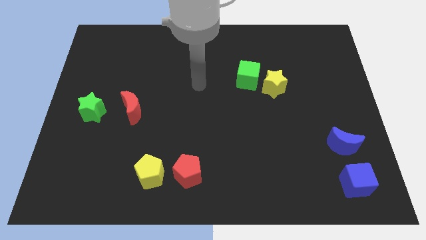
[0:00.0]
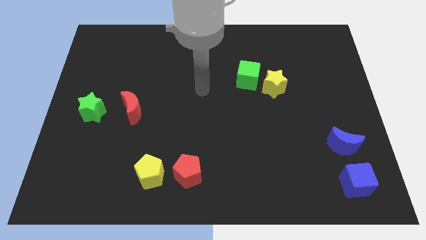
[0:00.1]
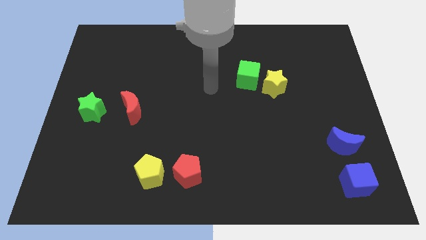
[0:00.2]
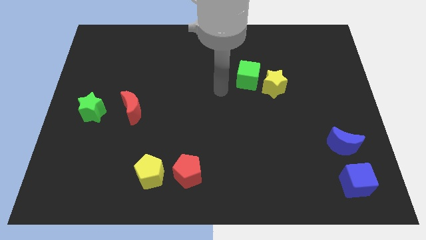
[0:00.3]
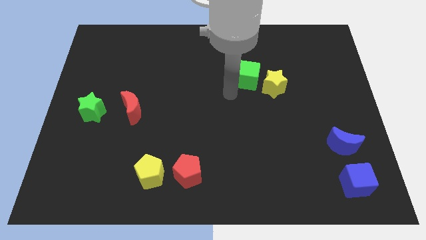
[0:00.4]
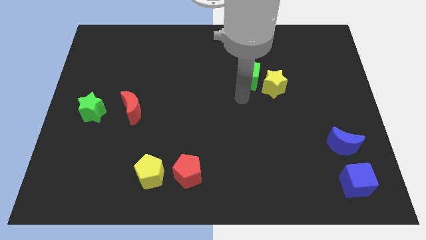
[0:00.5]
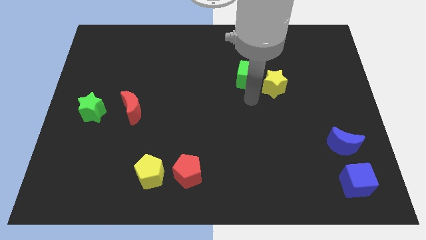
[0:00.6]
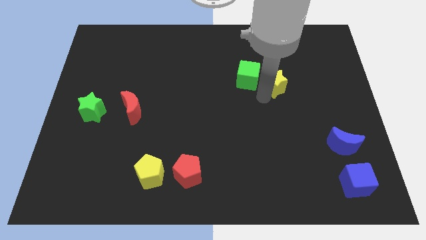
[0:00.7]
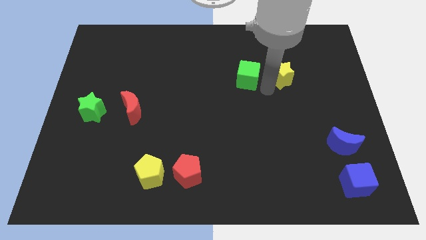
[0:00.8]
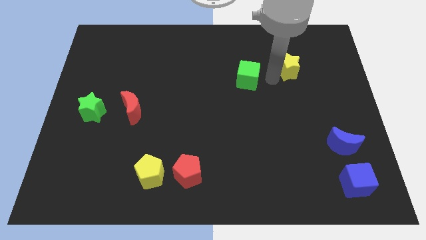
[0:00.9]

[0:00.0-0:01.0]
move the green cube away from the yellow star

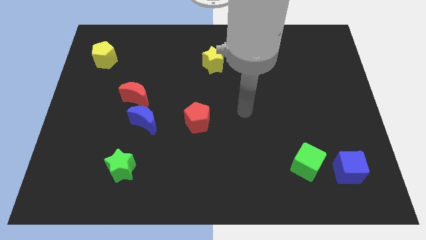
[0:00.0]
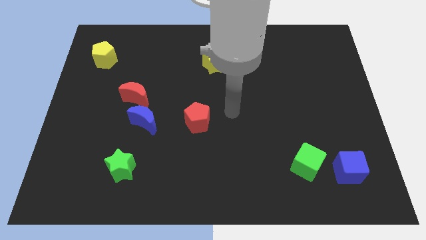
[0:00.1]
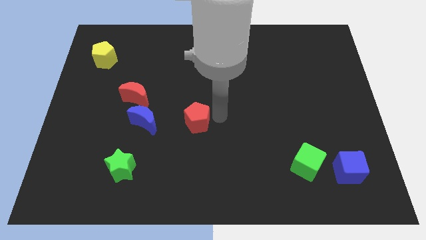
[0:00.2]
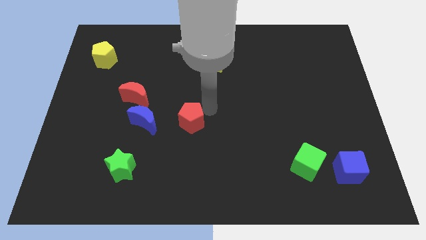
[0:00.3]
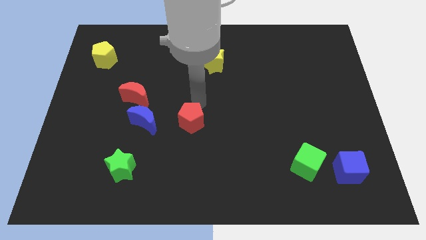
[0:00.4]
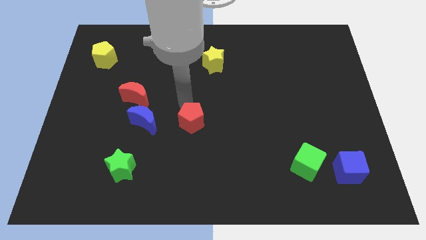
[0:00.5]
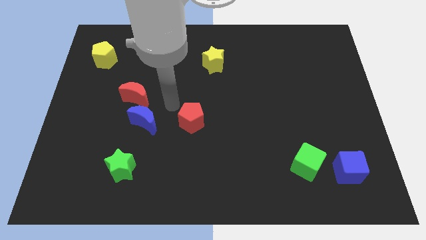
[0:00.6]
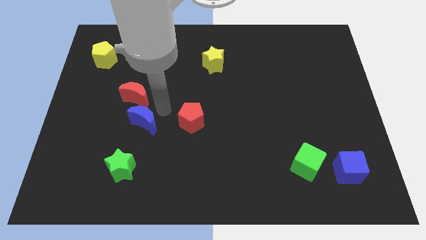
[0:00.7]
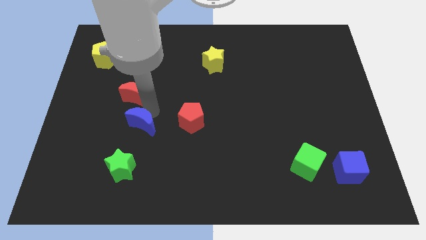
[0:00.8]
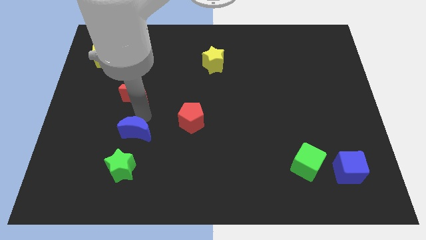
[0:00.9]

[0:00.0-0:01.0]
move the red moon away from the blue moon

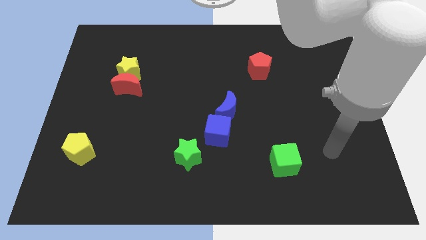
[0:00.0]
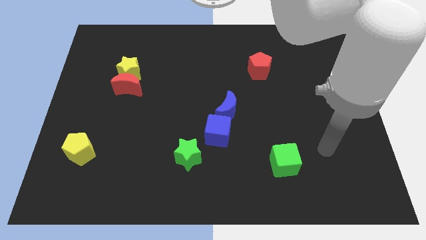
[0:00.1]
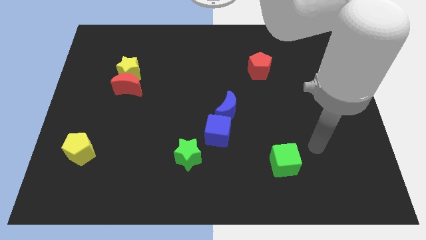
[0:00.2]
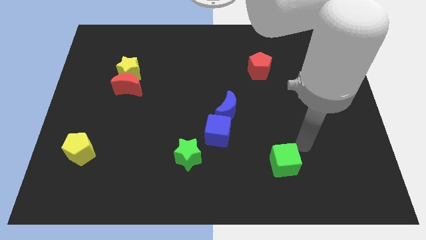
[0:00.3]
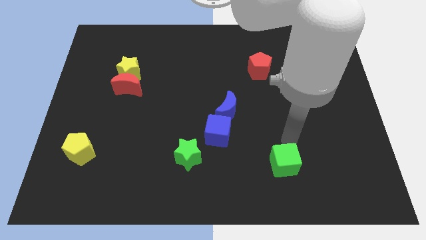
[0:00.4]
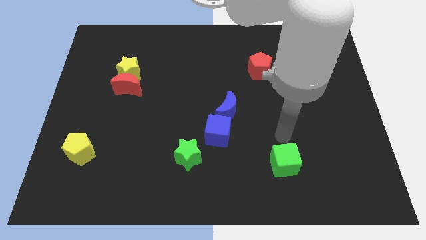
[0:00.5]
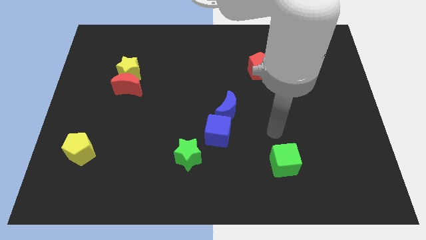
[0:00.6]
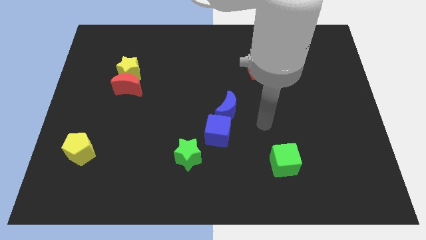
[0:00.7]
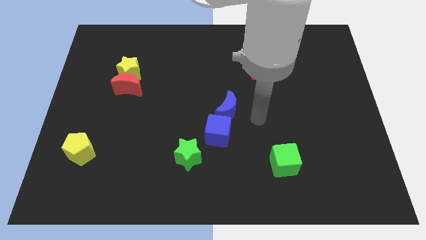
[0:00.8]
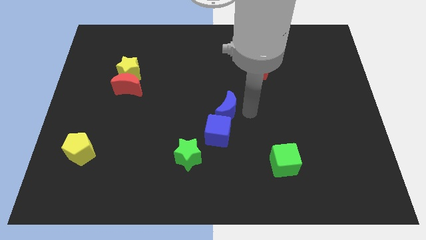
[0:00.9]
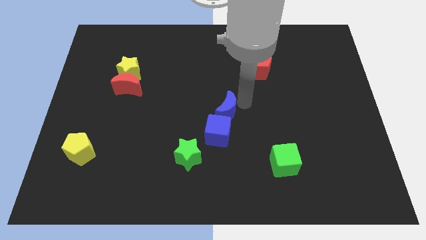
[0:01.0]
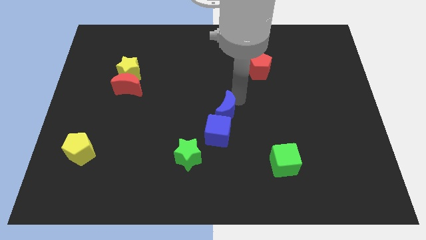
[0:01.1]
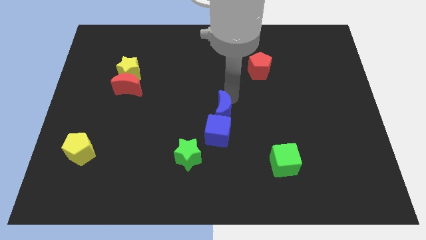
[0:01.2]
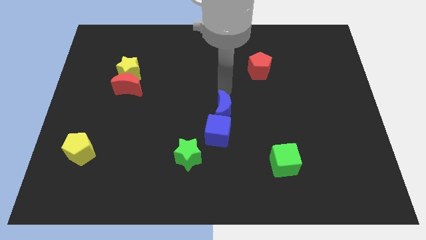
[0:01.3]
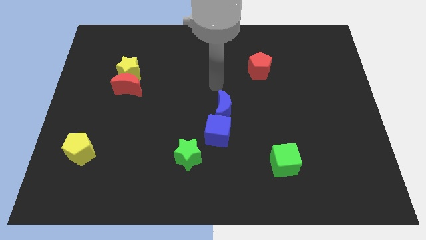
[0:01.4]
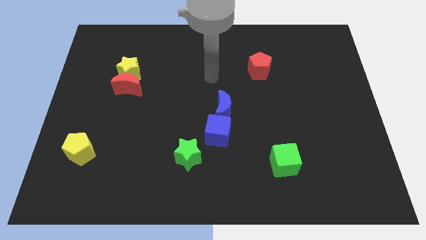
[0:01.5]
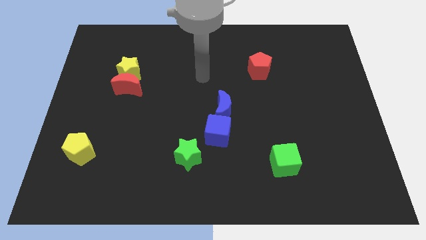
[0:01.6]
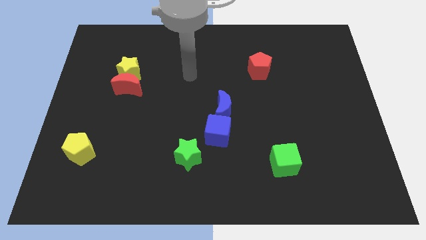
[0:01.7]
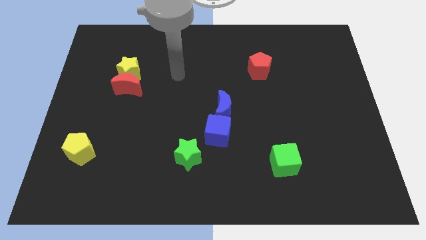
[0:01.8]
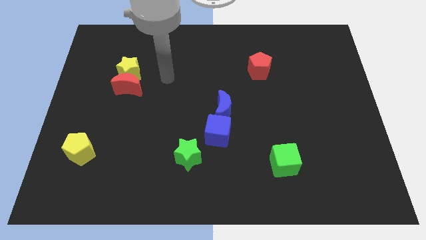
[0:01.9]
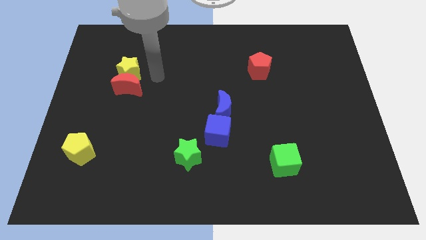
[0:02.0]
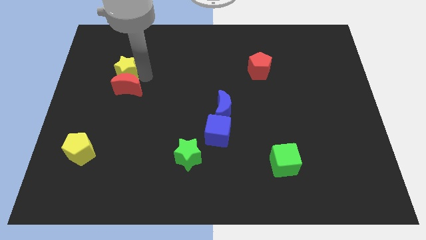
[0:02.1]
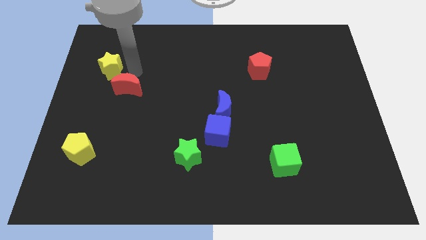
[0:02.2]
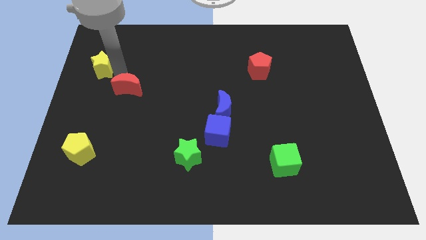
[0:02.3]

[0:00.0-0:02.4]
move the red moon away from the yellow star

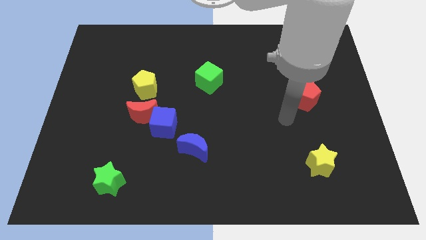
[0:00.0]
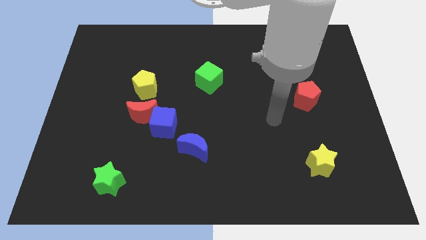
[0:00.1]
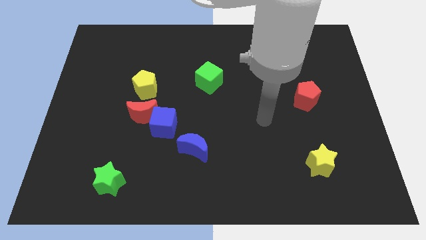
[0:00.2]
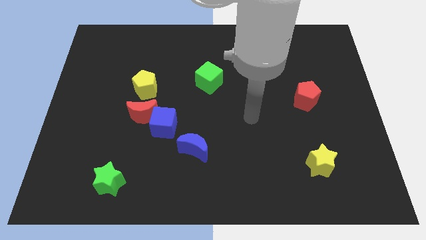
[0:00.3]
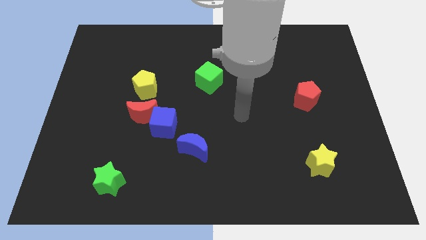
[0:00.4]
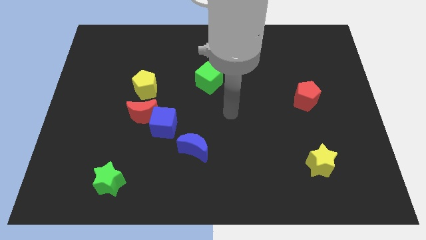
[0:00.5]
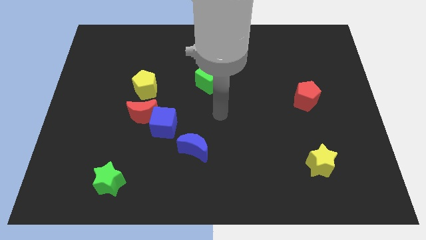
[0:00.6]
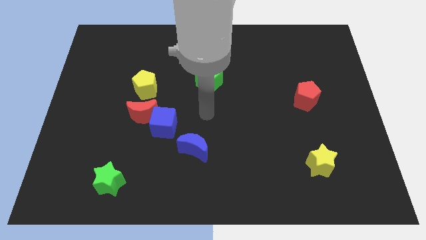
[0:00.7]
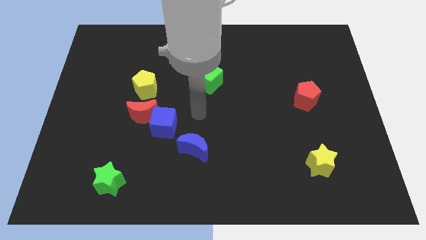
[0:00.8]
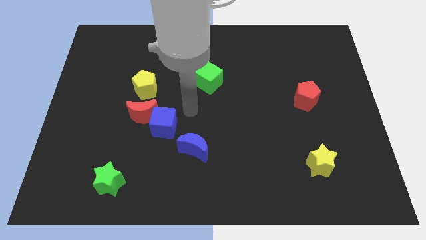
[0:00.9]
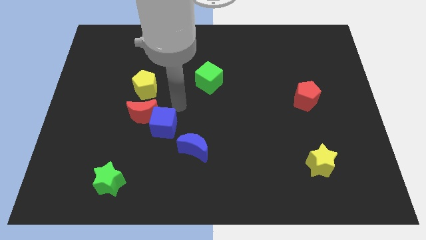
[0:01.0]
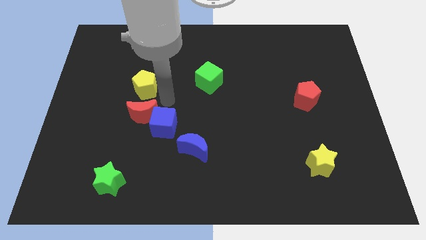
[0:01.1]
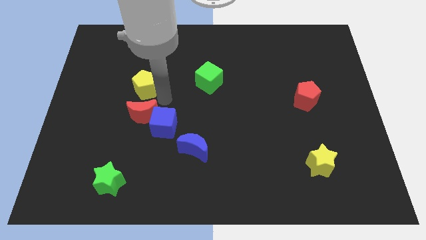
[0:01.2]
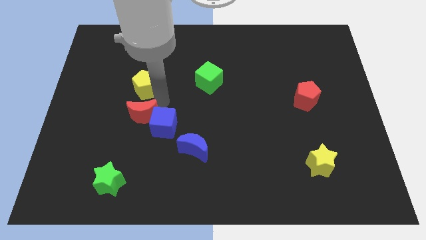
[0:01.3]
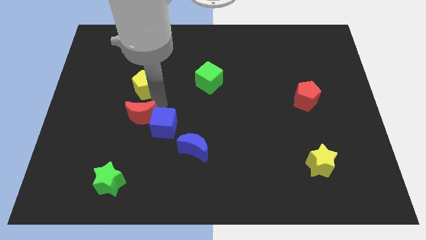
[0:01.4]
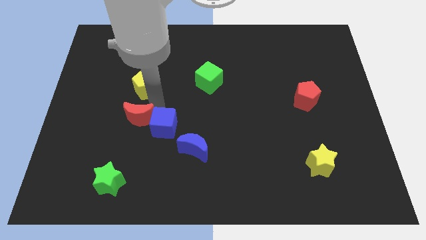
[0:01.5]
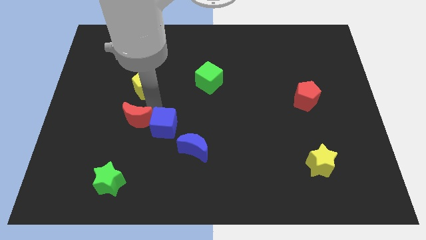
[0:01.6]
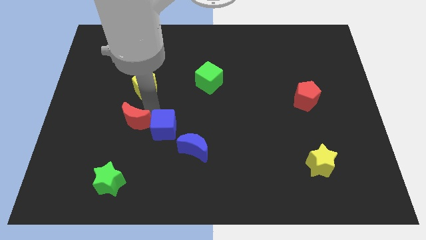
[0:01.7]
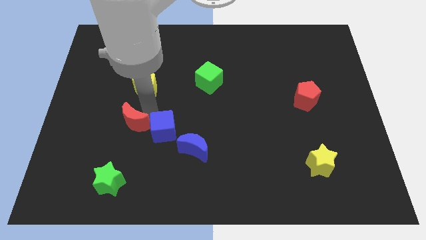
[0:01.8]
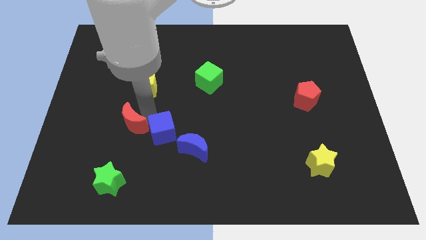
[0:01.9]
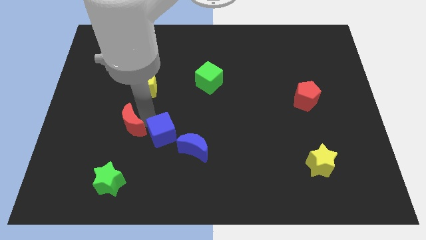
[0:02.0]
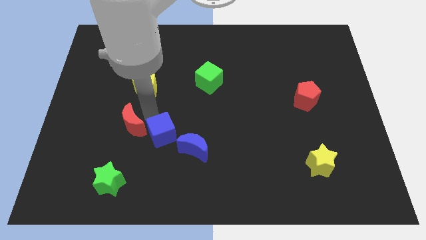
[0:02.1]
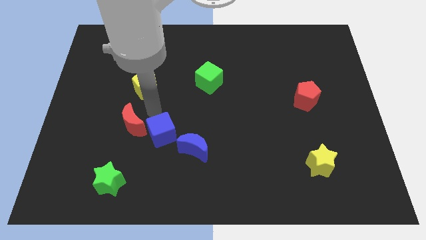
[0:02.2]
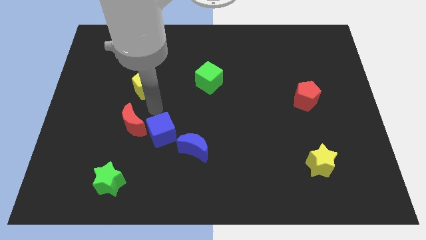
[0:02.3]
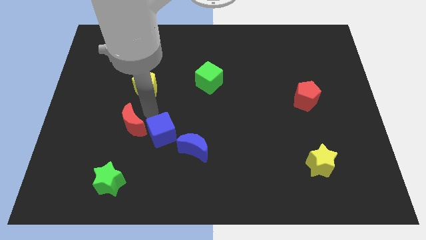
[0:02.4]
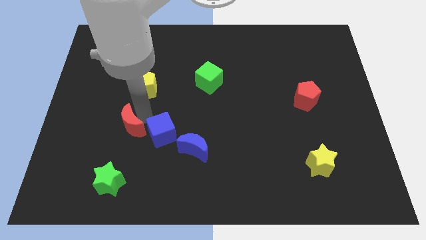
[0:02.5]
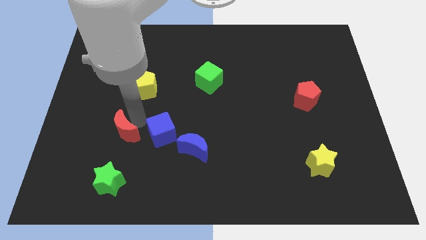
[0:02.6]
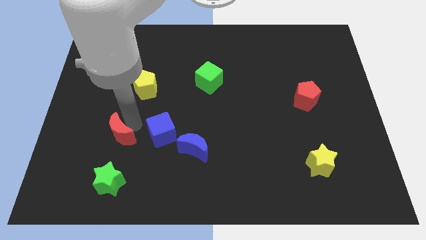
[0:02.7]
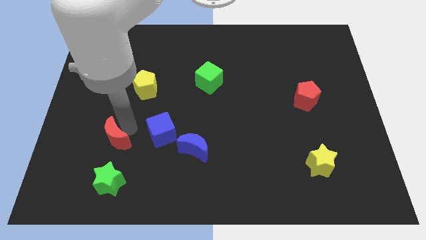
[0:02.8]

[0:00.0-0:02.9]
move the red moon away from the blue cube and yellow pentagon

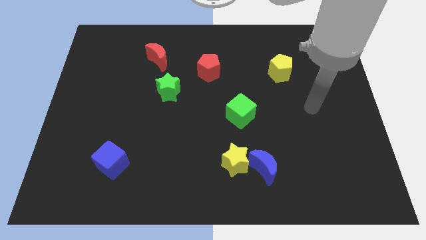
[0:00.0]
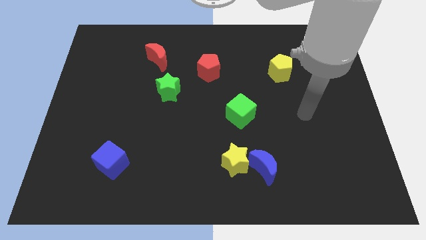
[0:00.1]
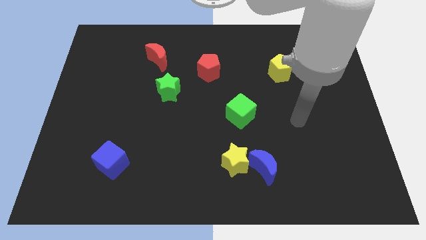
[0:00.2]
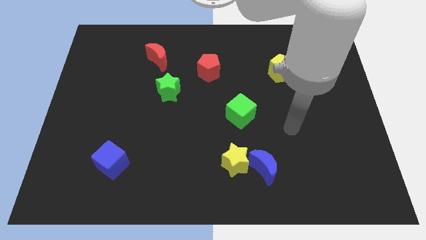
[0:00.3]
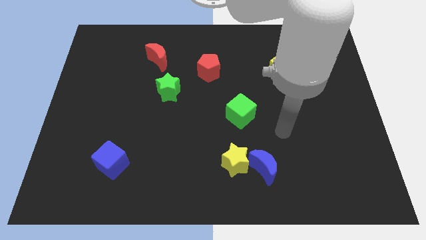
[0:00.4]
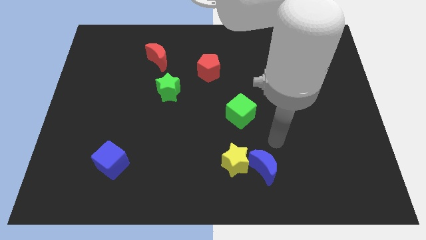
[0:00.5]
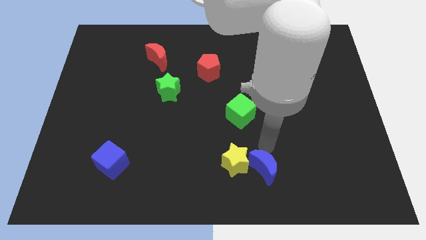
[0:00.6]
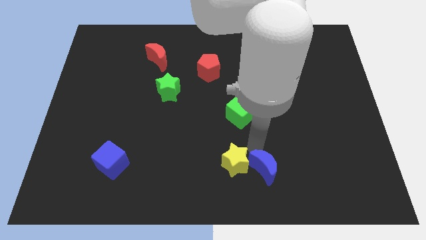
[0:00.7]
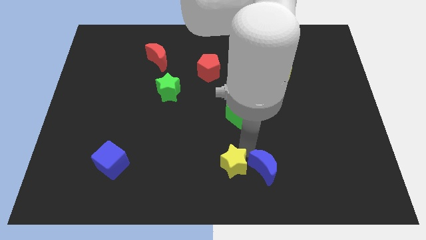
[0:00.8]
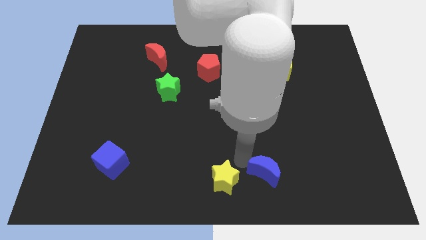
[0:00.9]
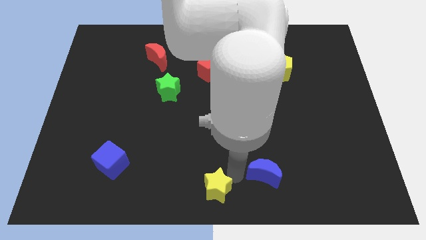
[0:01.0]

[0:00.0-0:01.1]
move the blue moon away from the yellow star

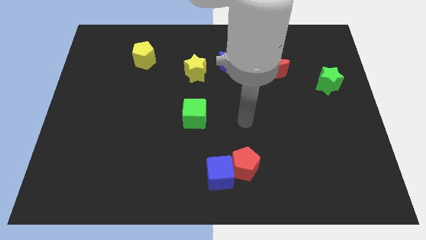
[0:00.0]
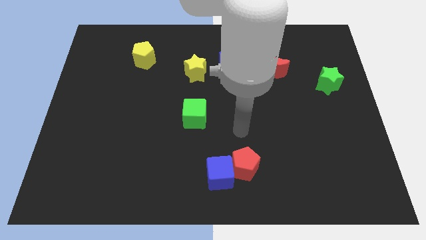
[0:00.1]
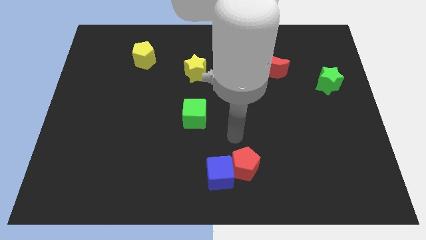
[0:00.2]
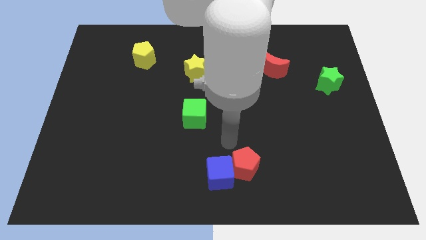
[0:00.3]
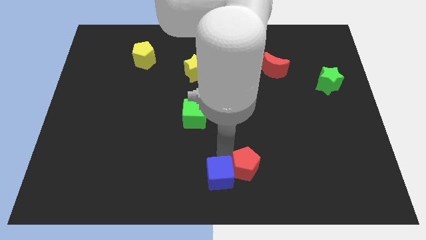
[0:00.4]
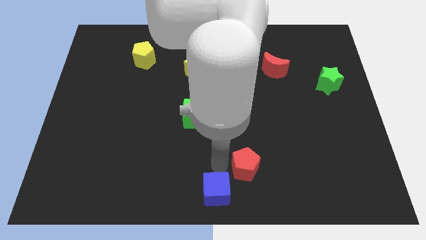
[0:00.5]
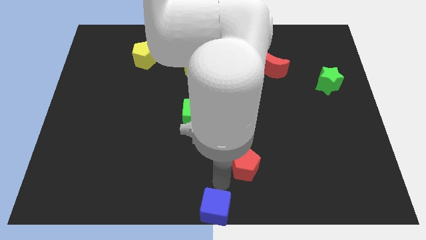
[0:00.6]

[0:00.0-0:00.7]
move the red pentagon away from the blue cube

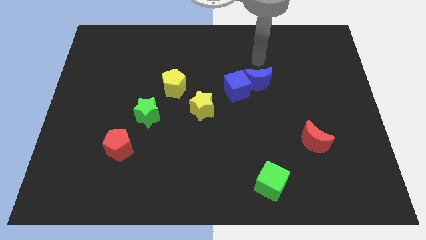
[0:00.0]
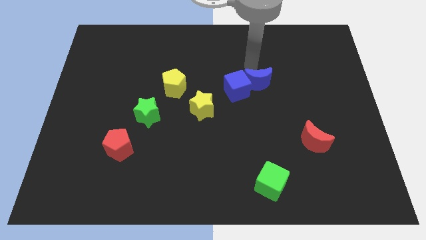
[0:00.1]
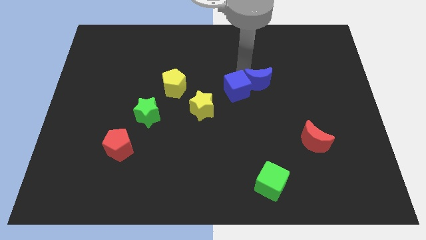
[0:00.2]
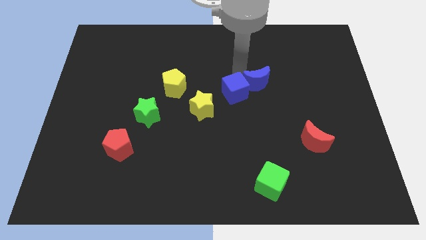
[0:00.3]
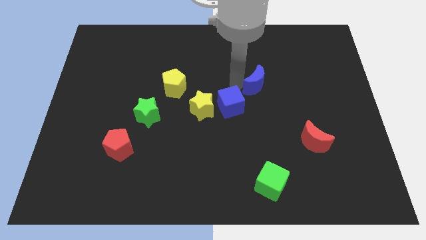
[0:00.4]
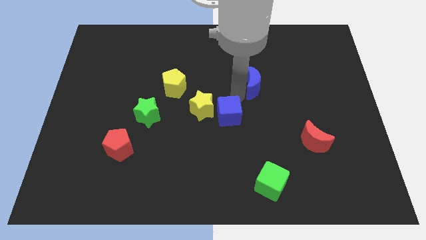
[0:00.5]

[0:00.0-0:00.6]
separate the blue moon from the blue cube
